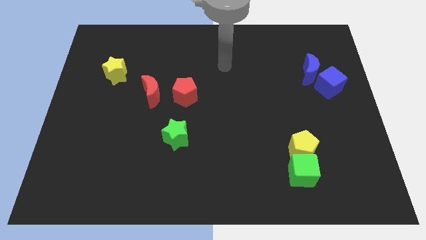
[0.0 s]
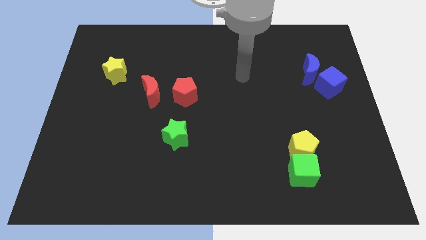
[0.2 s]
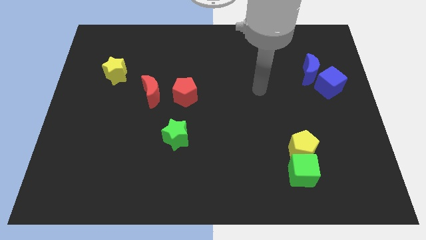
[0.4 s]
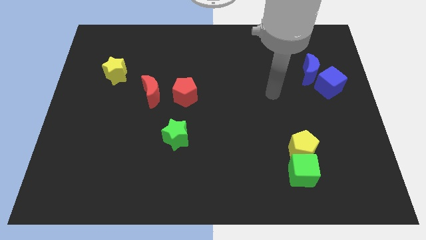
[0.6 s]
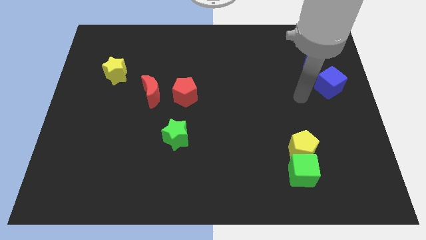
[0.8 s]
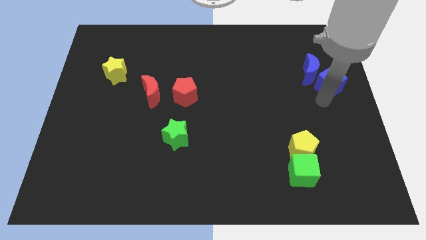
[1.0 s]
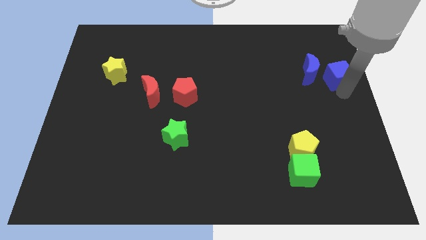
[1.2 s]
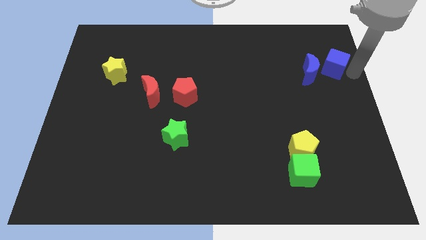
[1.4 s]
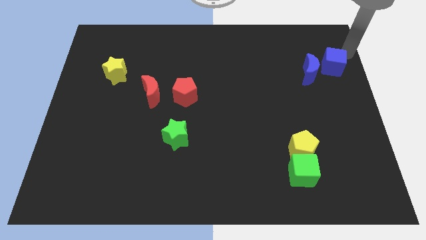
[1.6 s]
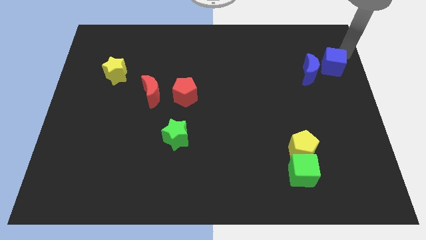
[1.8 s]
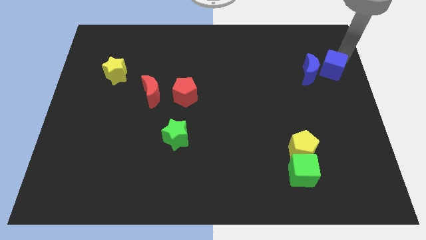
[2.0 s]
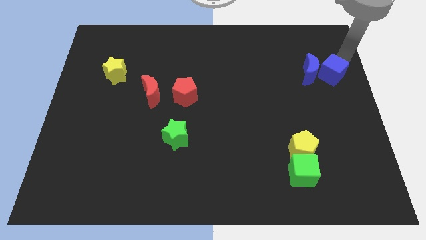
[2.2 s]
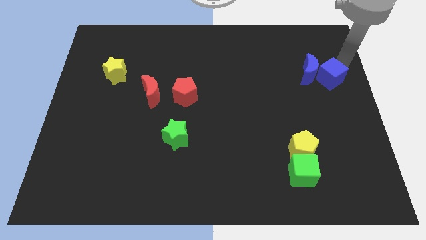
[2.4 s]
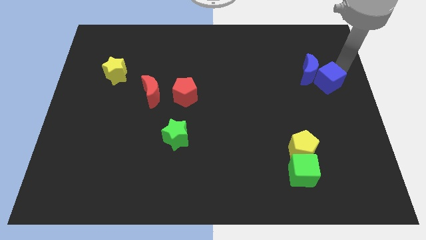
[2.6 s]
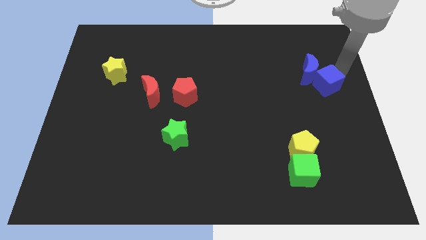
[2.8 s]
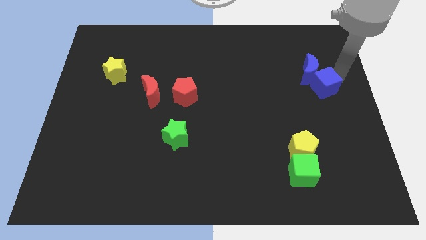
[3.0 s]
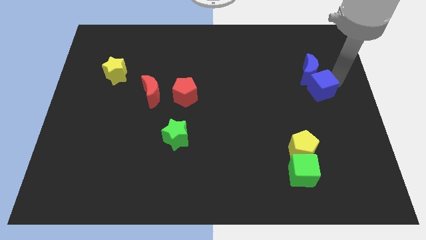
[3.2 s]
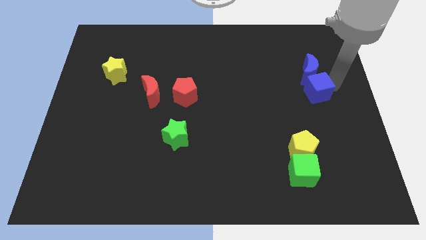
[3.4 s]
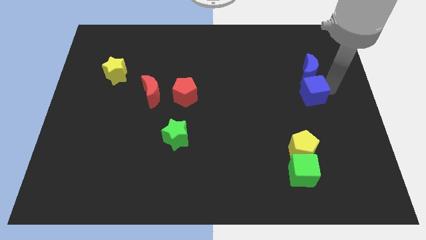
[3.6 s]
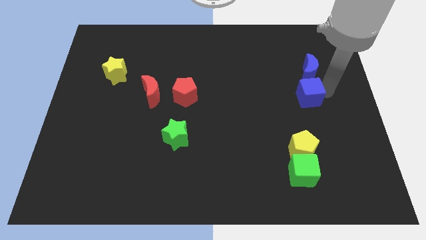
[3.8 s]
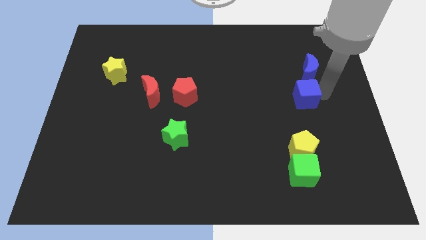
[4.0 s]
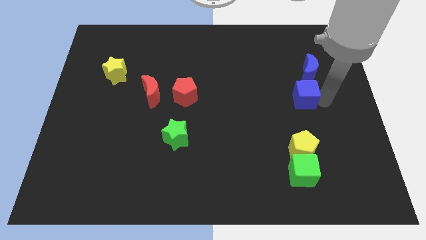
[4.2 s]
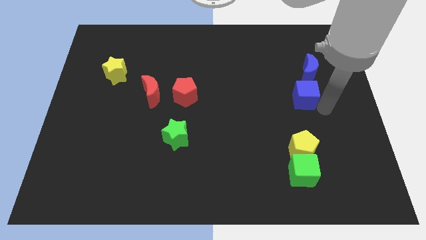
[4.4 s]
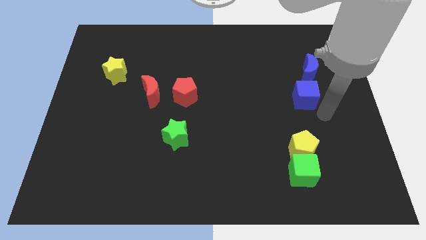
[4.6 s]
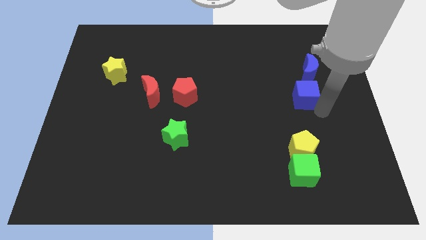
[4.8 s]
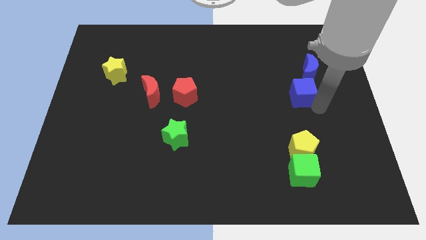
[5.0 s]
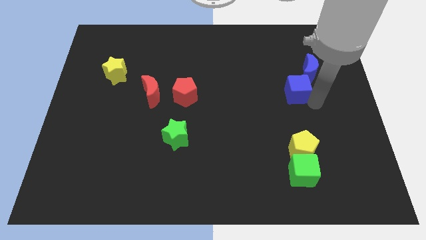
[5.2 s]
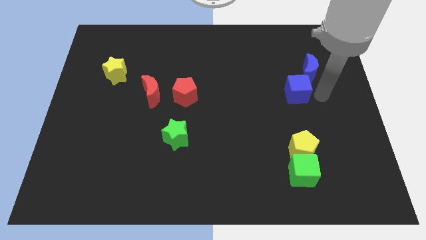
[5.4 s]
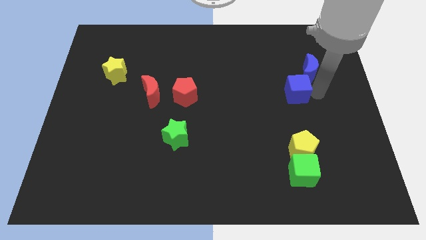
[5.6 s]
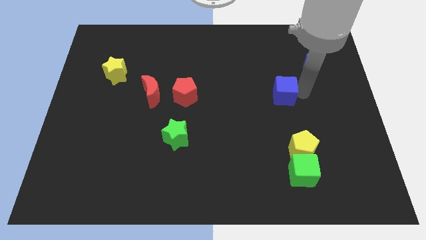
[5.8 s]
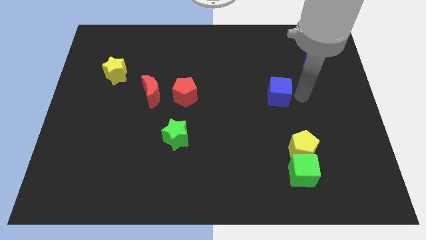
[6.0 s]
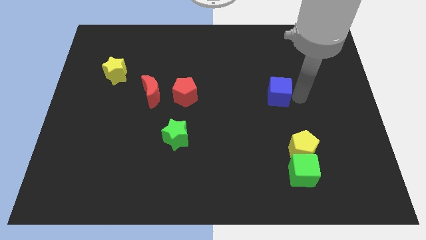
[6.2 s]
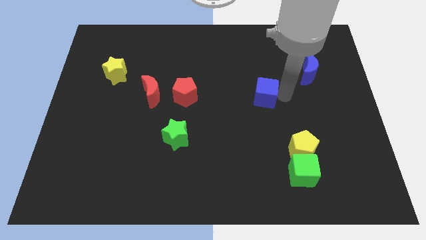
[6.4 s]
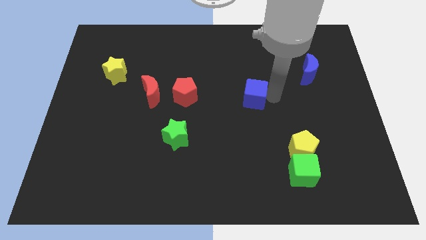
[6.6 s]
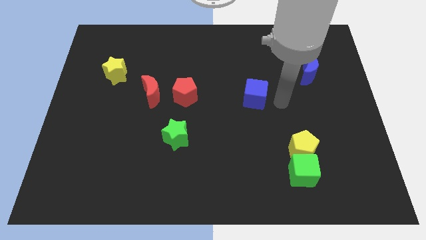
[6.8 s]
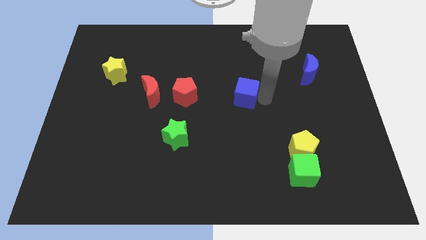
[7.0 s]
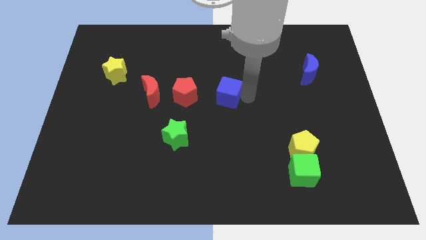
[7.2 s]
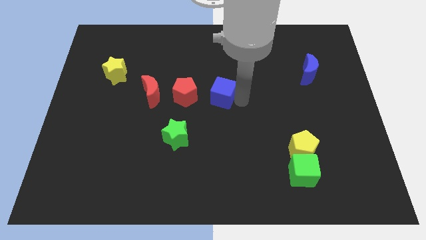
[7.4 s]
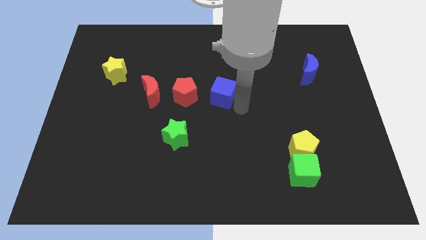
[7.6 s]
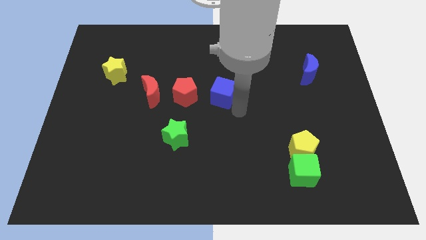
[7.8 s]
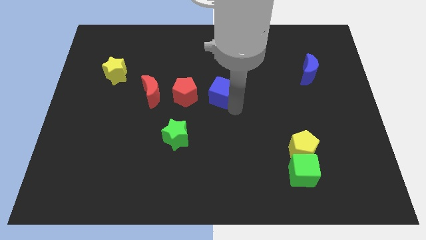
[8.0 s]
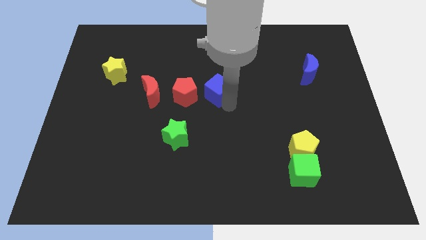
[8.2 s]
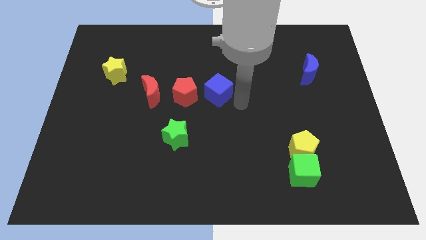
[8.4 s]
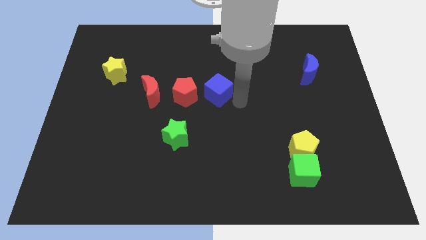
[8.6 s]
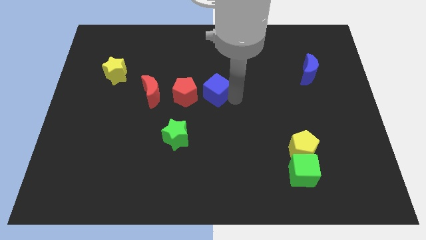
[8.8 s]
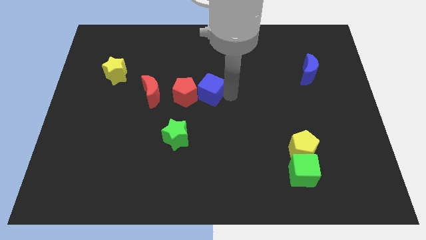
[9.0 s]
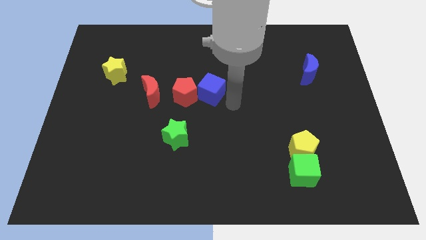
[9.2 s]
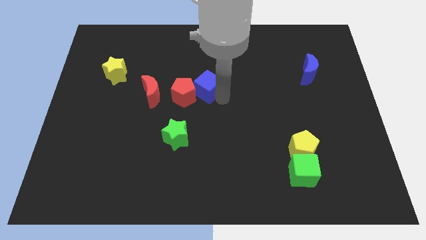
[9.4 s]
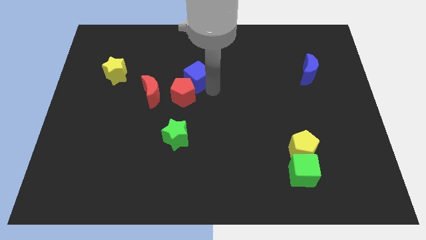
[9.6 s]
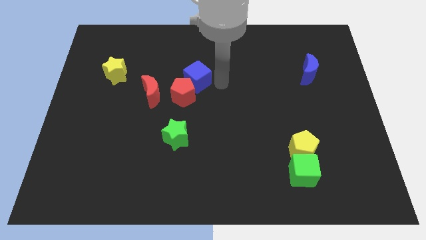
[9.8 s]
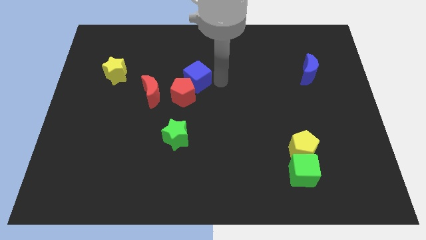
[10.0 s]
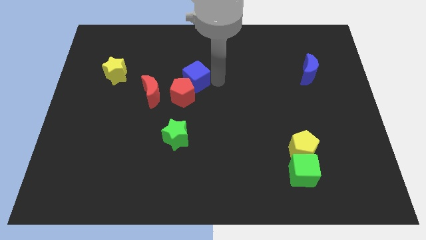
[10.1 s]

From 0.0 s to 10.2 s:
slide the blue cube to the top right side of the red moon

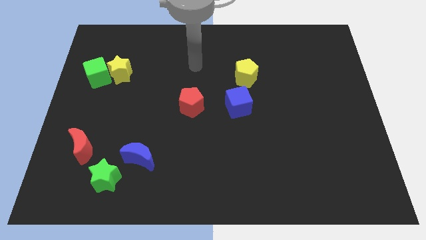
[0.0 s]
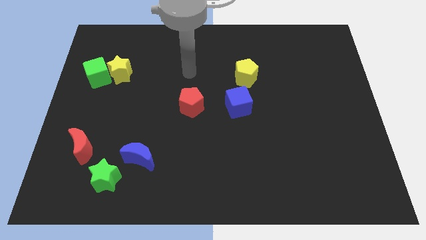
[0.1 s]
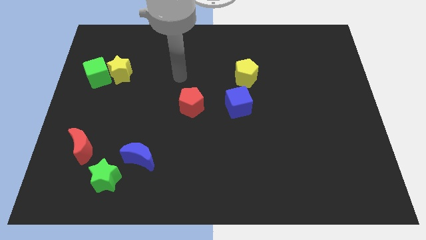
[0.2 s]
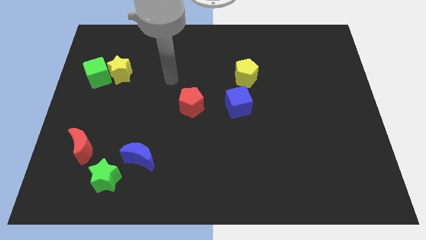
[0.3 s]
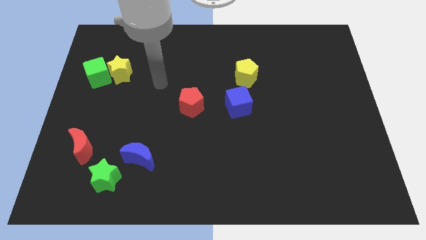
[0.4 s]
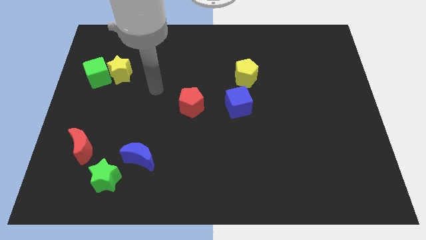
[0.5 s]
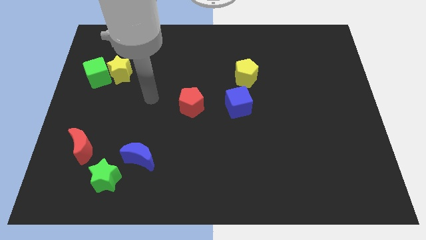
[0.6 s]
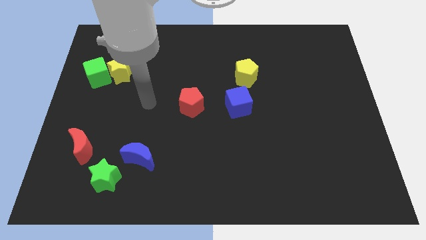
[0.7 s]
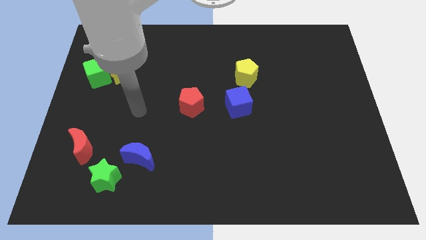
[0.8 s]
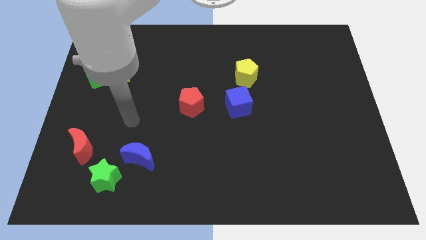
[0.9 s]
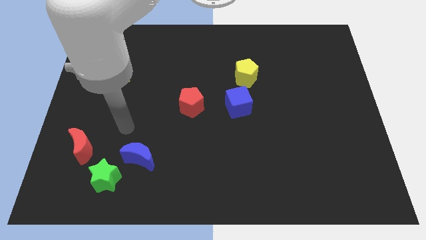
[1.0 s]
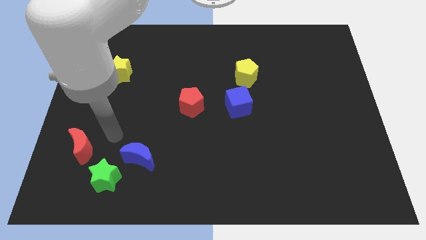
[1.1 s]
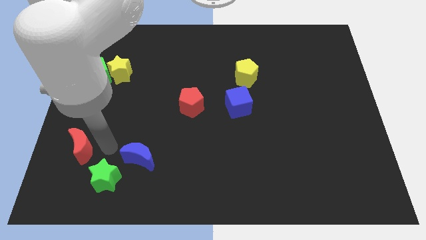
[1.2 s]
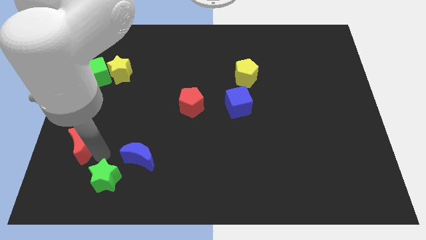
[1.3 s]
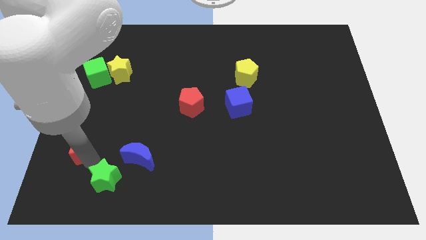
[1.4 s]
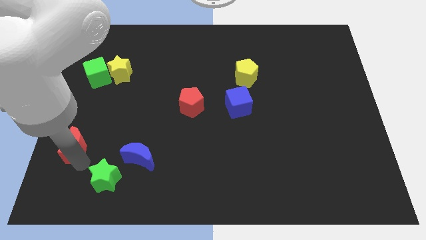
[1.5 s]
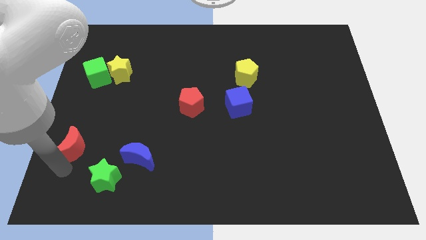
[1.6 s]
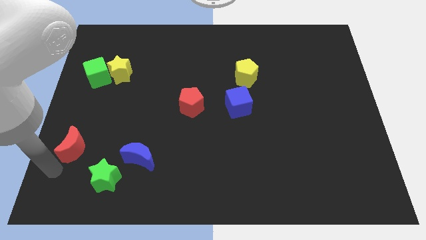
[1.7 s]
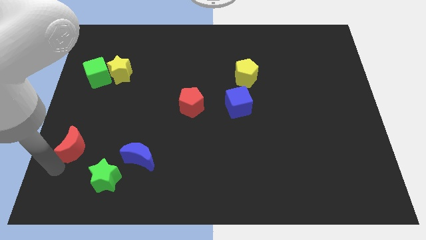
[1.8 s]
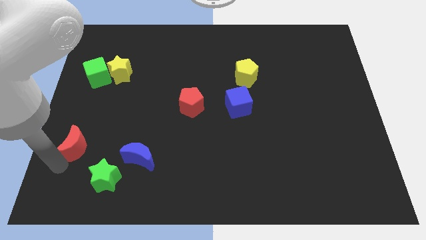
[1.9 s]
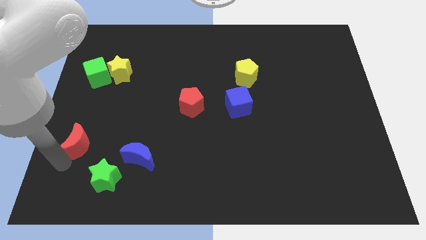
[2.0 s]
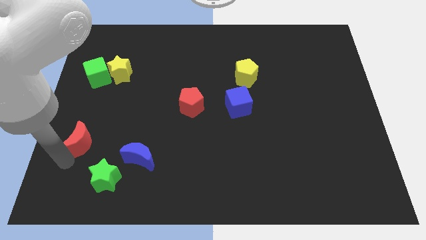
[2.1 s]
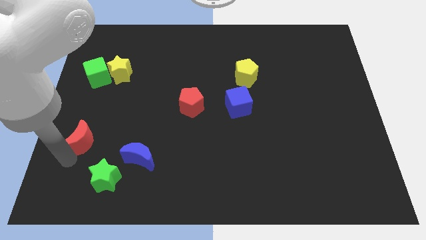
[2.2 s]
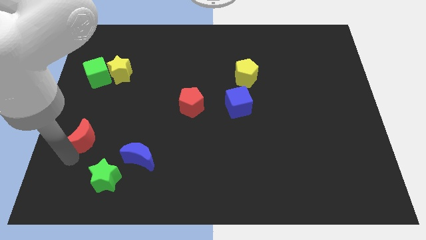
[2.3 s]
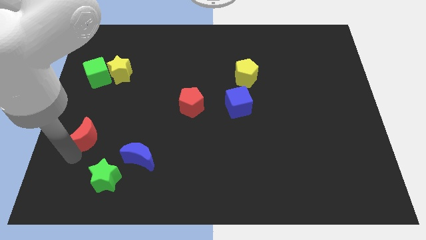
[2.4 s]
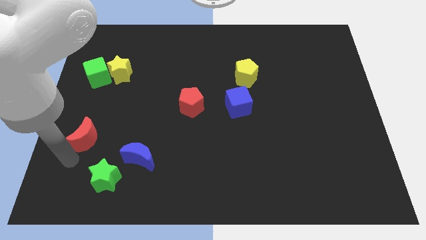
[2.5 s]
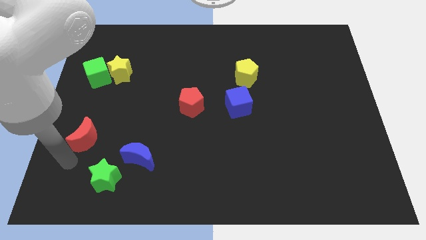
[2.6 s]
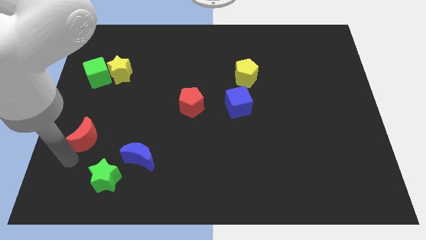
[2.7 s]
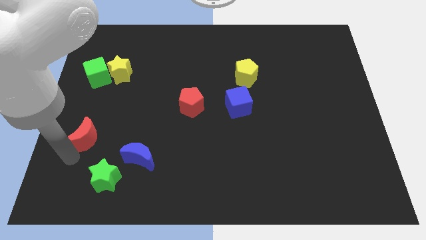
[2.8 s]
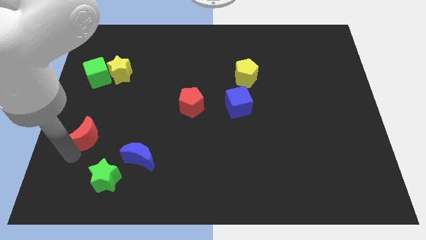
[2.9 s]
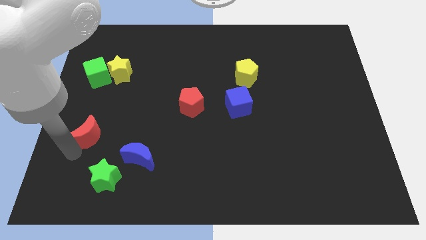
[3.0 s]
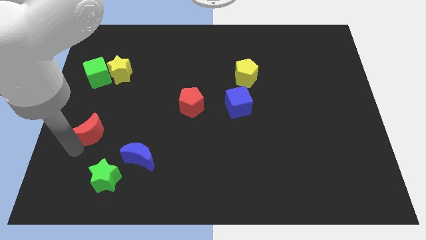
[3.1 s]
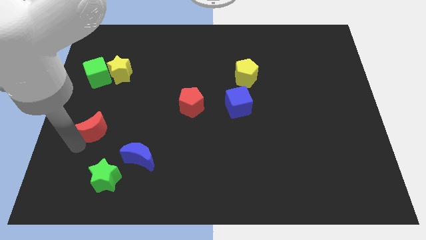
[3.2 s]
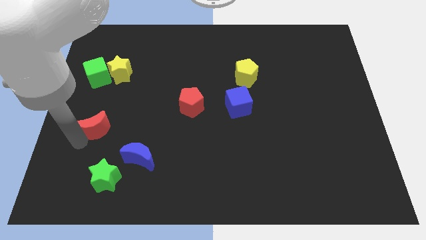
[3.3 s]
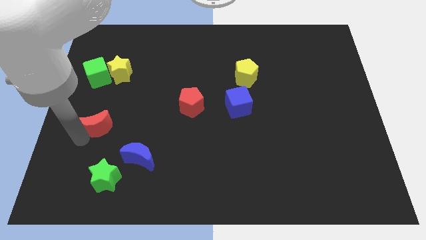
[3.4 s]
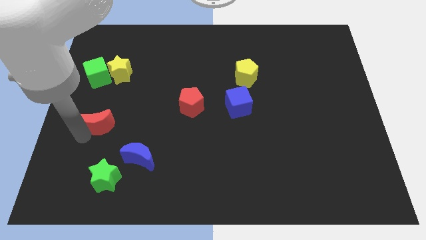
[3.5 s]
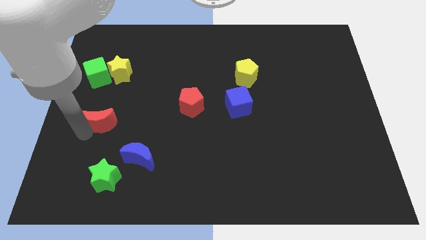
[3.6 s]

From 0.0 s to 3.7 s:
slide the red moon below the yellow star
